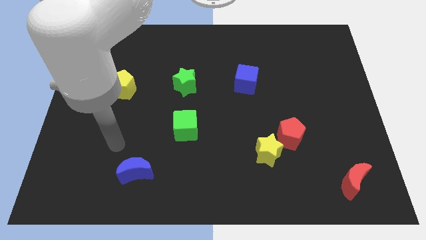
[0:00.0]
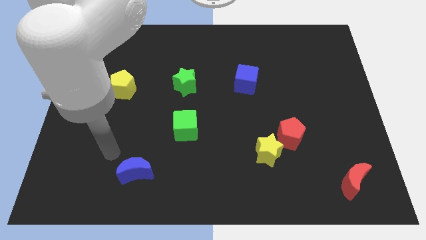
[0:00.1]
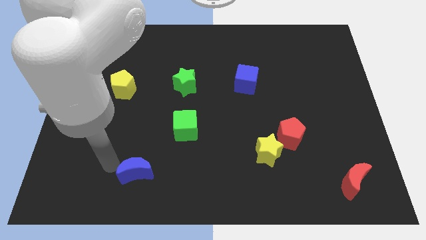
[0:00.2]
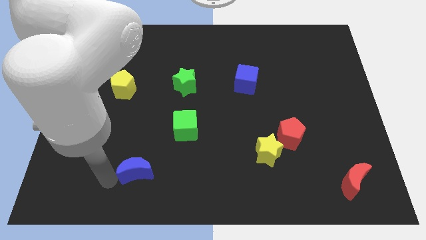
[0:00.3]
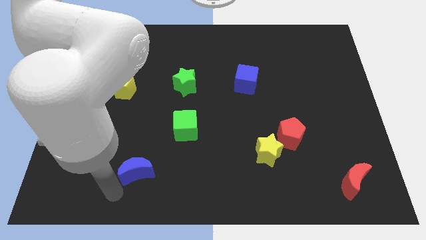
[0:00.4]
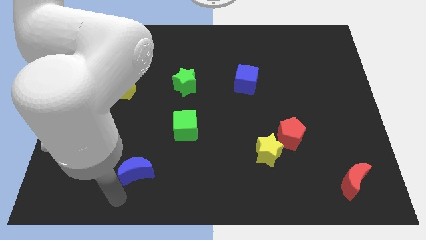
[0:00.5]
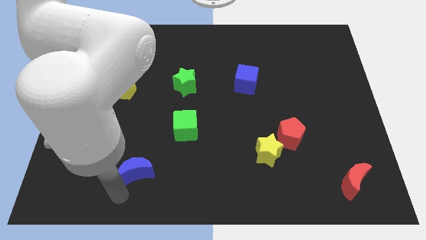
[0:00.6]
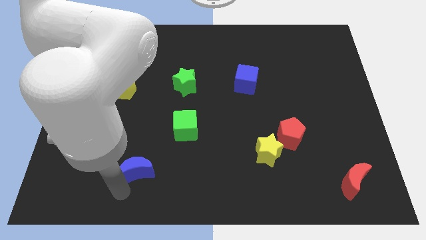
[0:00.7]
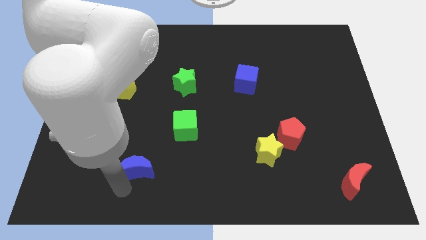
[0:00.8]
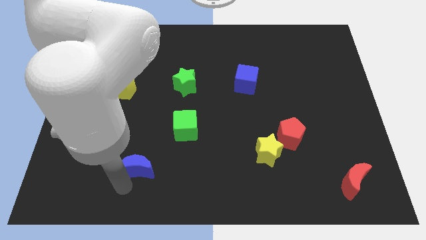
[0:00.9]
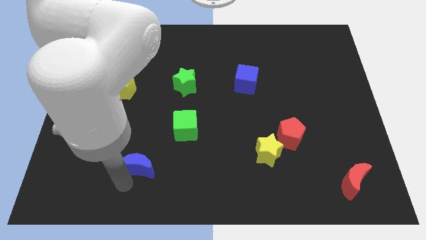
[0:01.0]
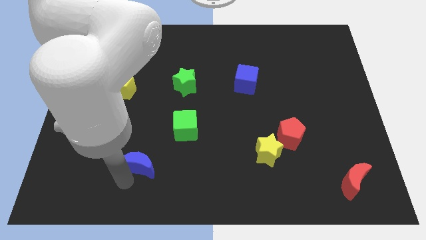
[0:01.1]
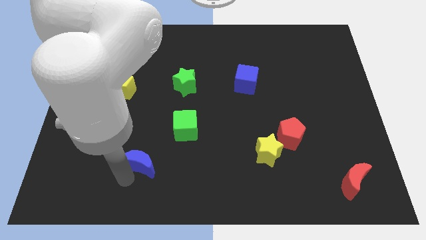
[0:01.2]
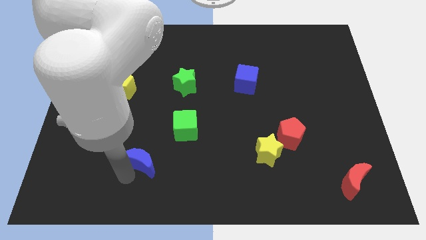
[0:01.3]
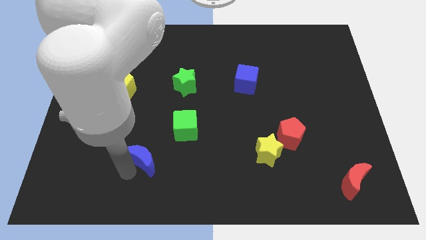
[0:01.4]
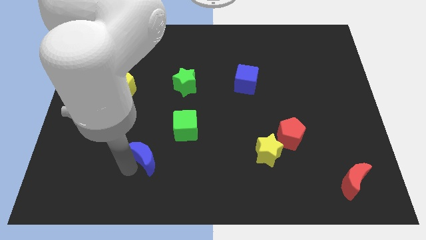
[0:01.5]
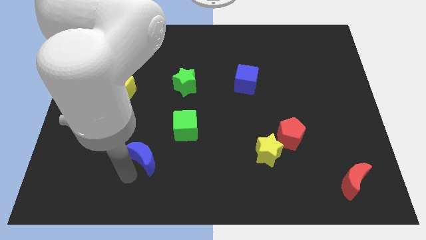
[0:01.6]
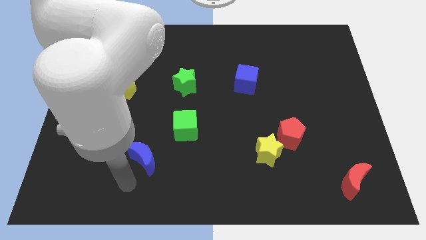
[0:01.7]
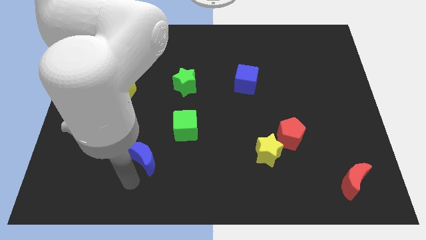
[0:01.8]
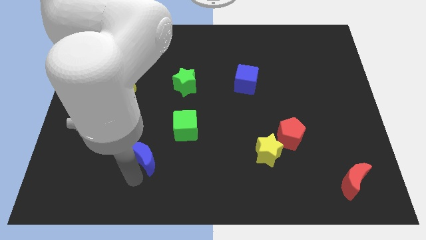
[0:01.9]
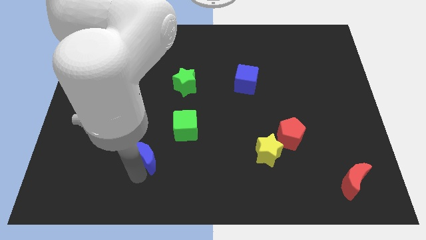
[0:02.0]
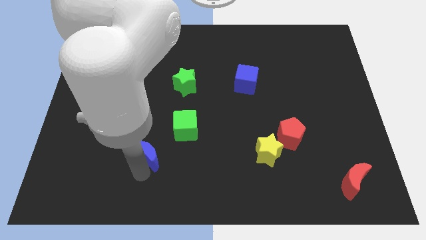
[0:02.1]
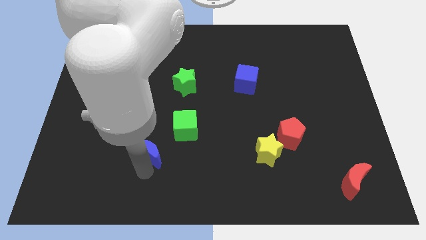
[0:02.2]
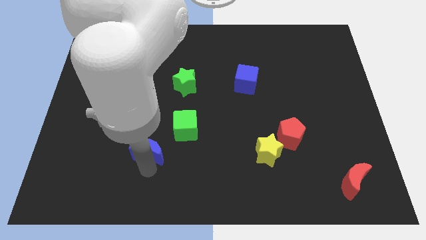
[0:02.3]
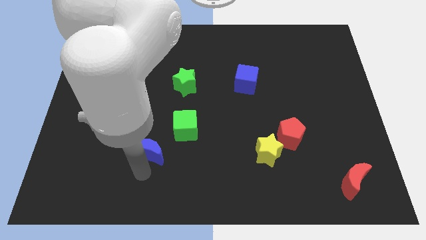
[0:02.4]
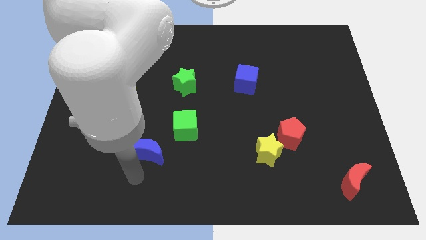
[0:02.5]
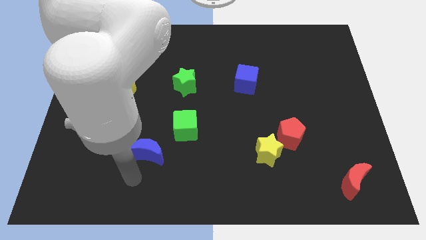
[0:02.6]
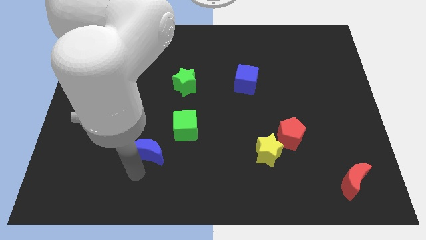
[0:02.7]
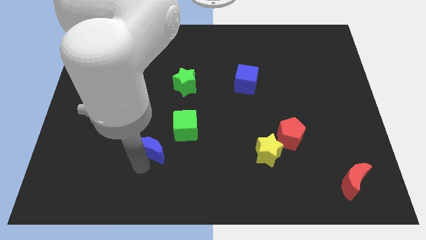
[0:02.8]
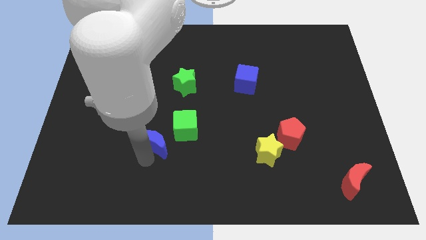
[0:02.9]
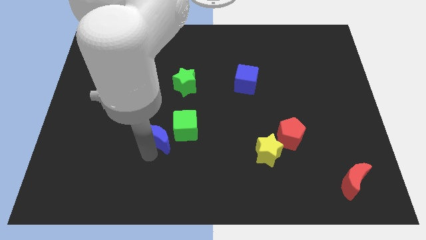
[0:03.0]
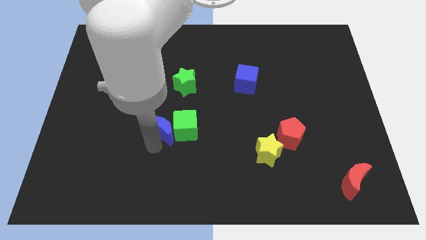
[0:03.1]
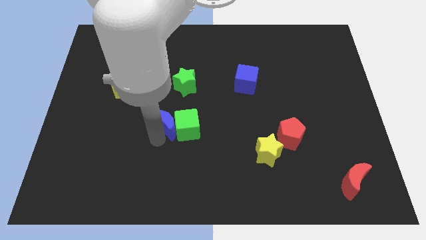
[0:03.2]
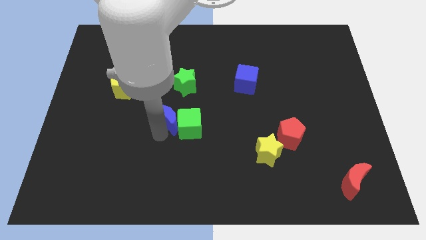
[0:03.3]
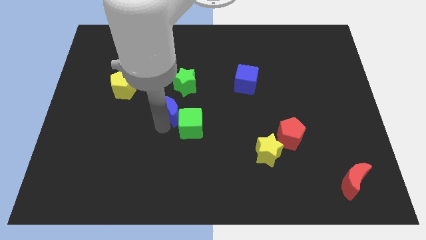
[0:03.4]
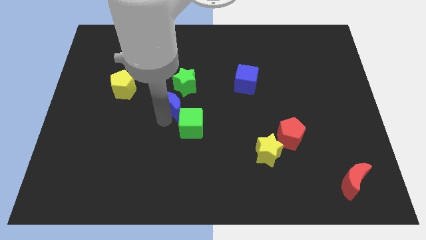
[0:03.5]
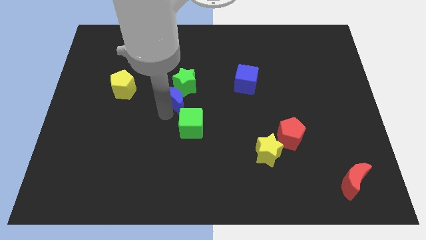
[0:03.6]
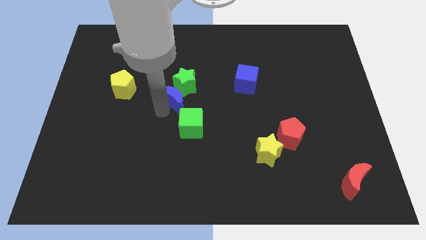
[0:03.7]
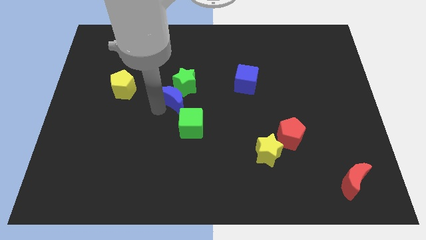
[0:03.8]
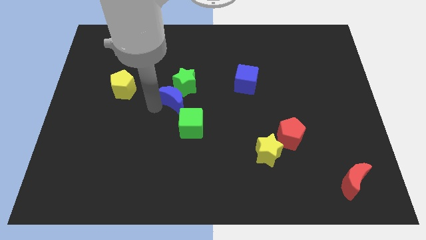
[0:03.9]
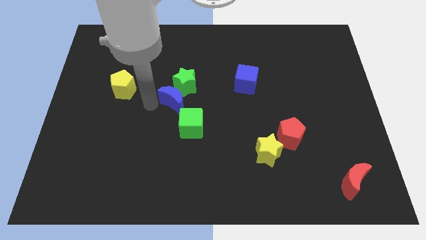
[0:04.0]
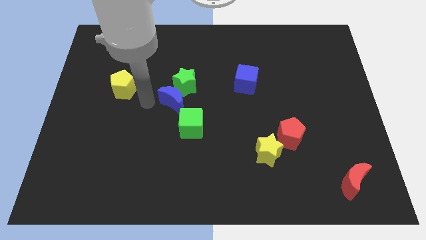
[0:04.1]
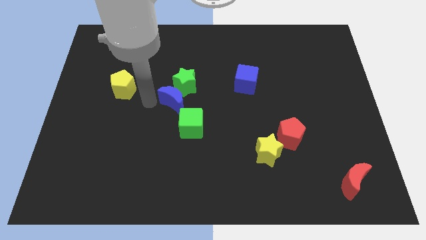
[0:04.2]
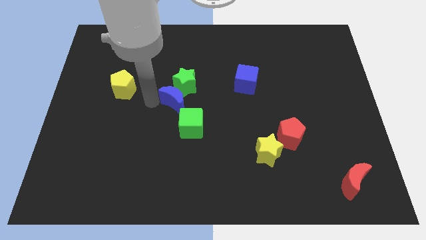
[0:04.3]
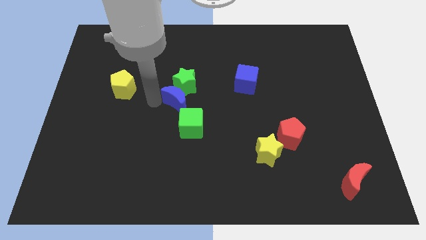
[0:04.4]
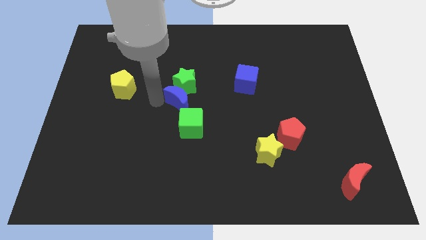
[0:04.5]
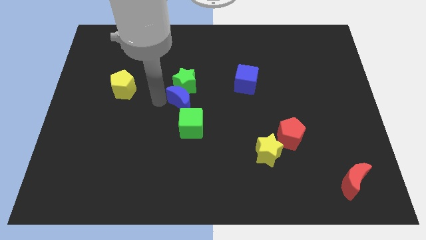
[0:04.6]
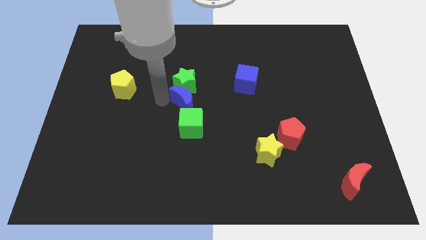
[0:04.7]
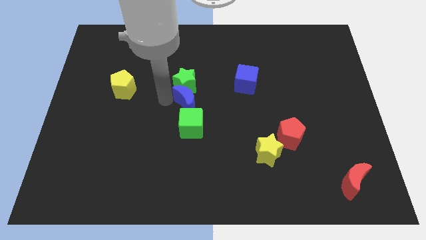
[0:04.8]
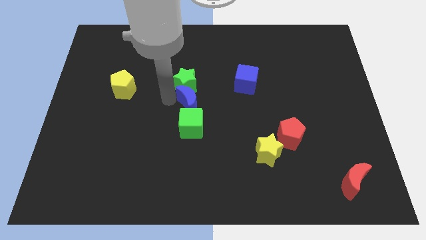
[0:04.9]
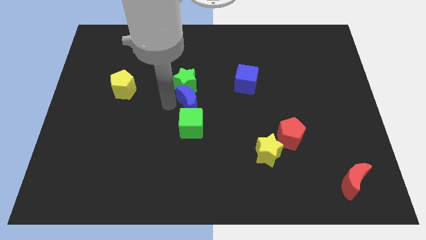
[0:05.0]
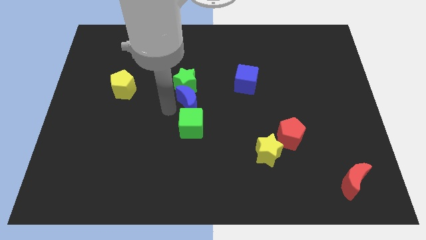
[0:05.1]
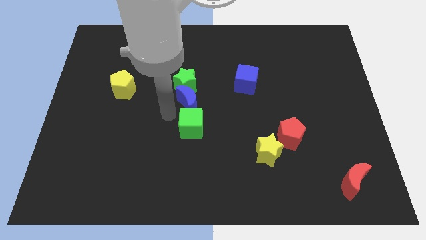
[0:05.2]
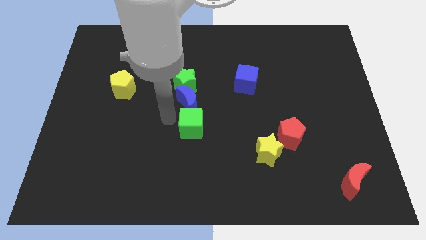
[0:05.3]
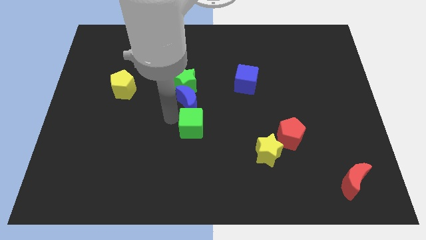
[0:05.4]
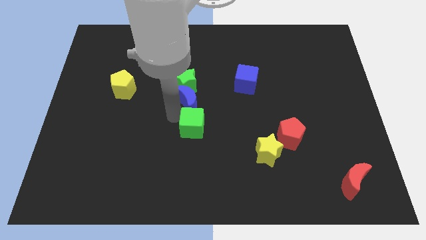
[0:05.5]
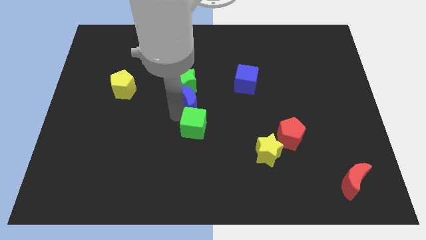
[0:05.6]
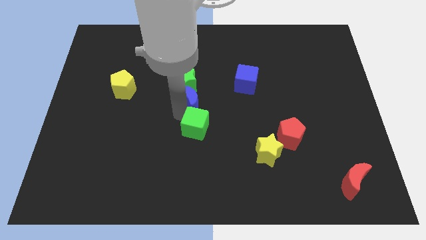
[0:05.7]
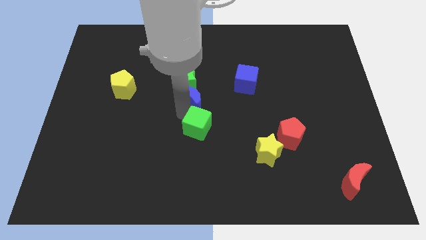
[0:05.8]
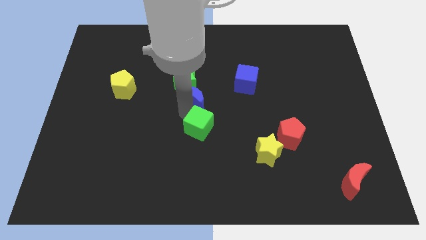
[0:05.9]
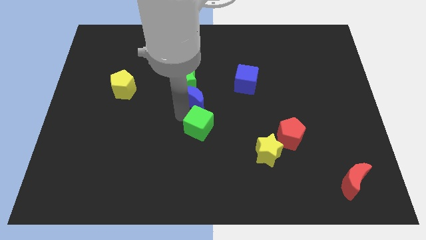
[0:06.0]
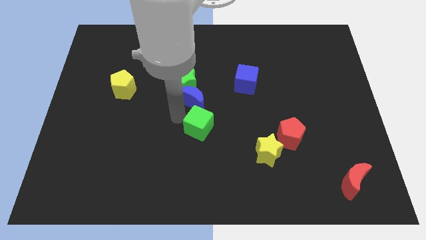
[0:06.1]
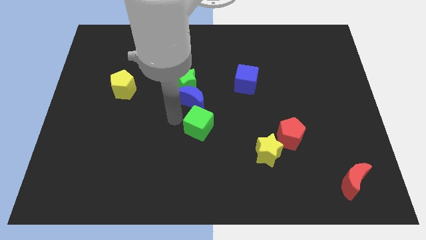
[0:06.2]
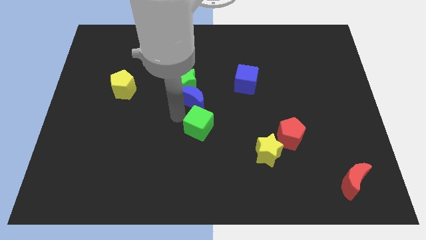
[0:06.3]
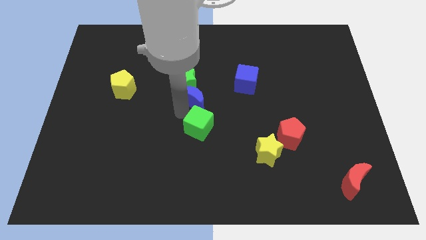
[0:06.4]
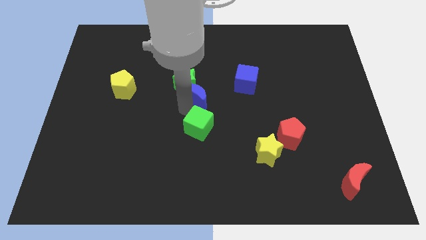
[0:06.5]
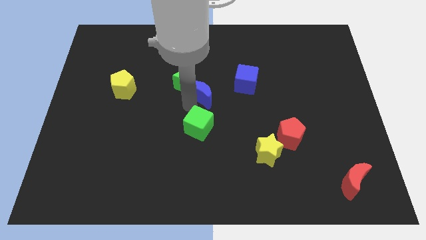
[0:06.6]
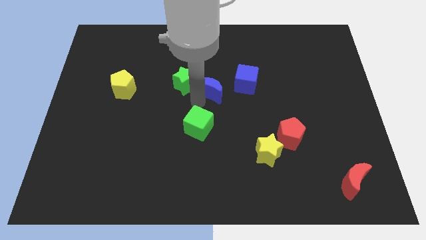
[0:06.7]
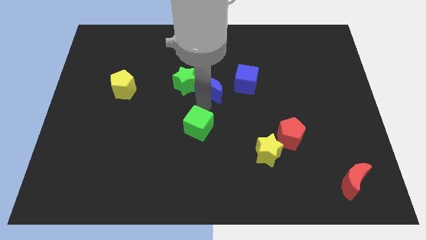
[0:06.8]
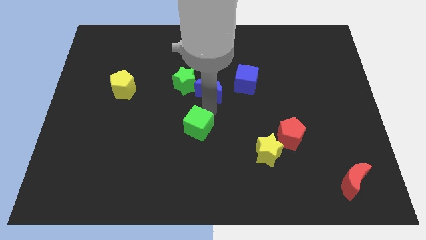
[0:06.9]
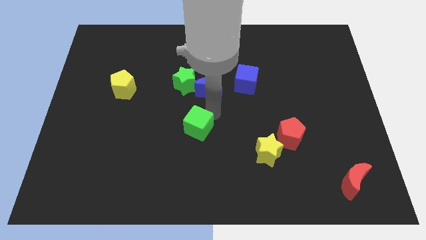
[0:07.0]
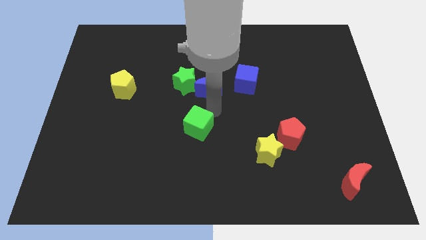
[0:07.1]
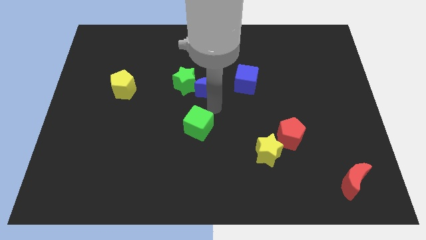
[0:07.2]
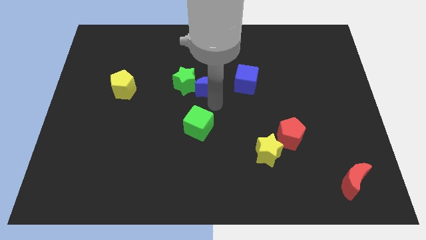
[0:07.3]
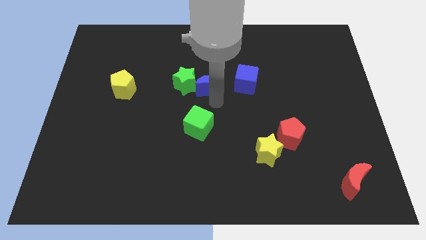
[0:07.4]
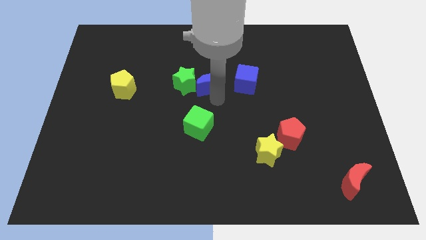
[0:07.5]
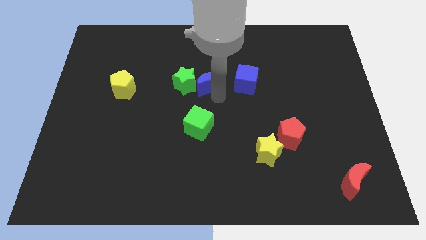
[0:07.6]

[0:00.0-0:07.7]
put the blue moon diagonally up and to the right of the green star
